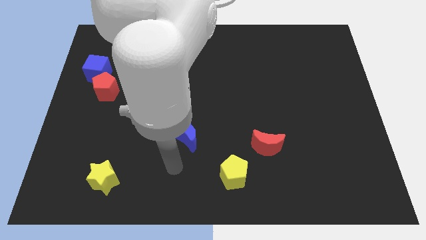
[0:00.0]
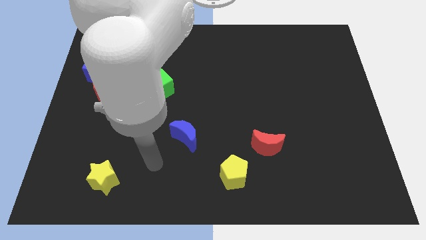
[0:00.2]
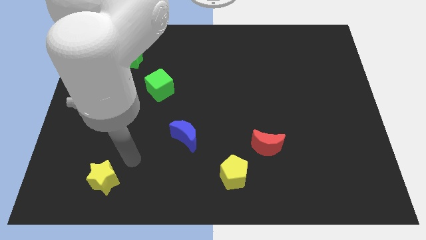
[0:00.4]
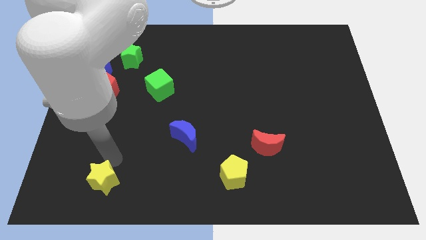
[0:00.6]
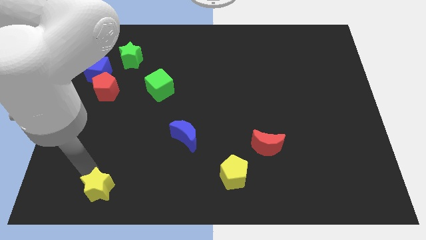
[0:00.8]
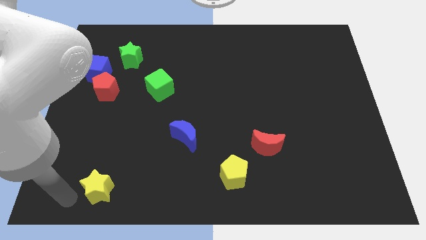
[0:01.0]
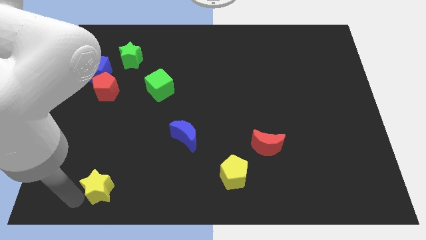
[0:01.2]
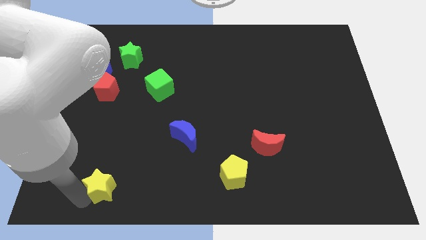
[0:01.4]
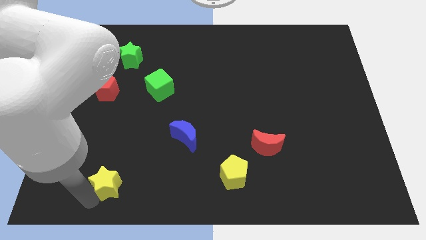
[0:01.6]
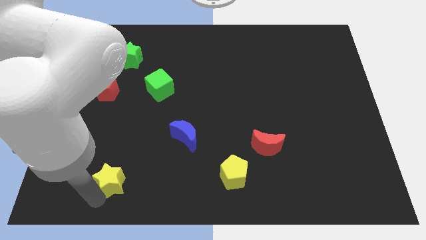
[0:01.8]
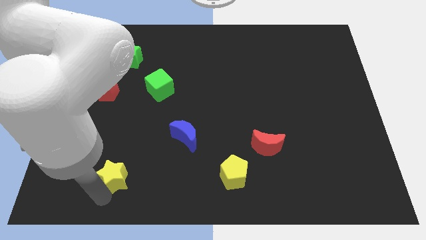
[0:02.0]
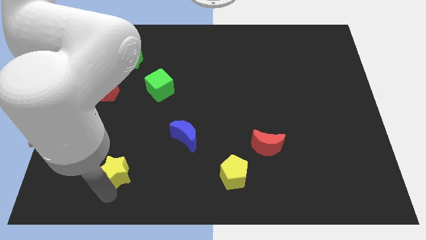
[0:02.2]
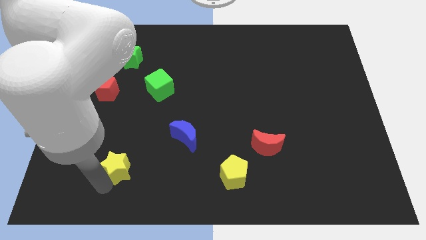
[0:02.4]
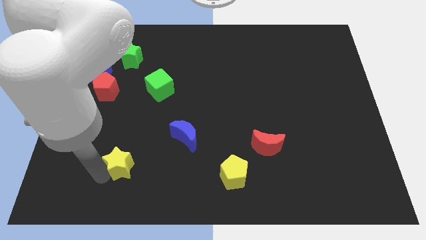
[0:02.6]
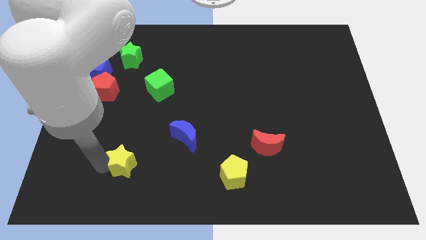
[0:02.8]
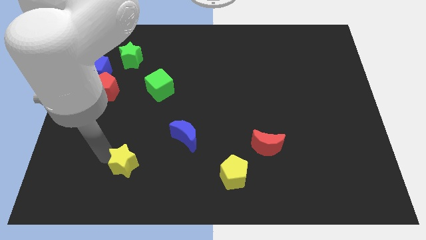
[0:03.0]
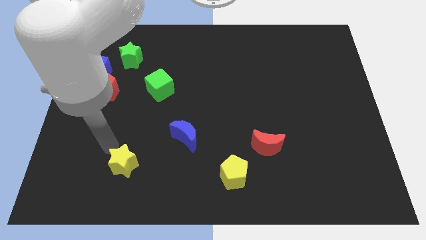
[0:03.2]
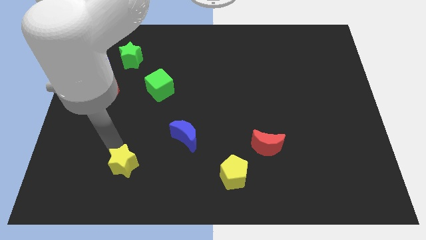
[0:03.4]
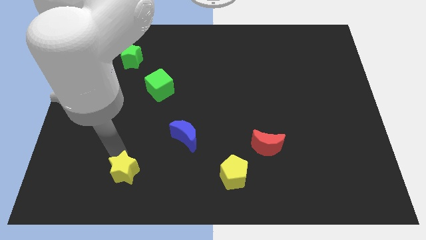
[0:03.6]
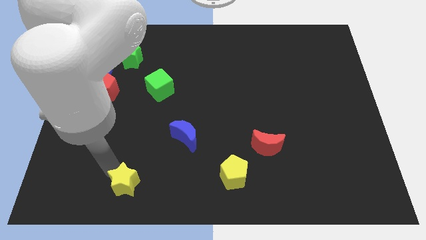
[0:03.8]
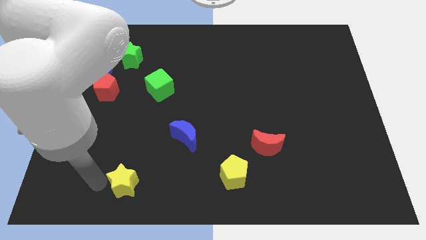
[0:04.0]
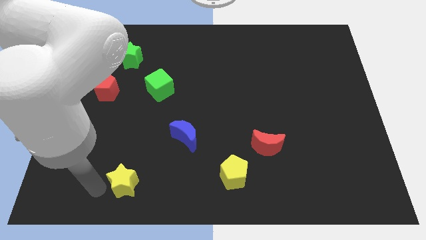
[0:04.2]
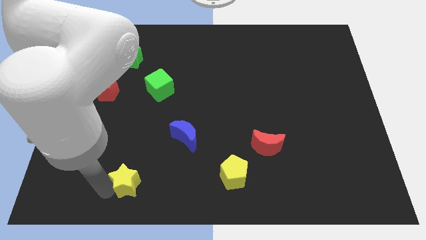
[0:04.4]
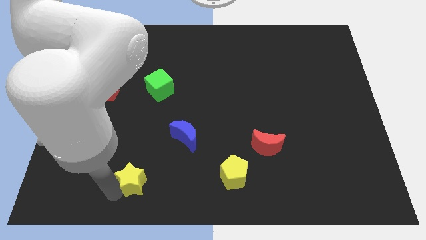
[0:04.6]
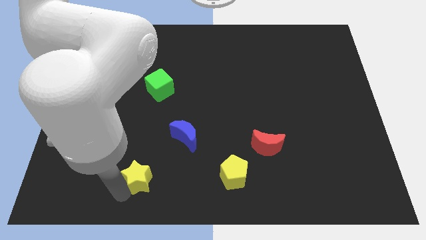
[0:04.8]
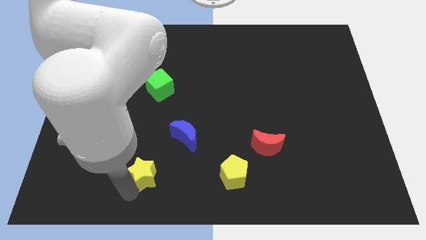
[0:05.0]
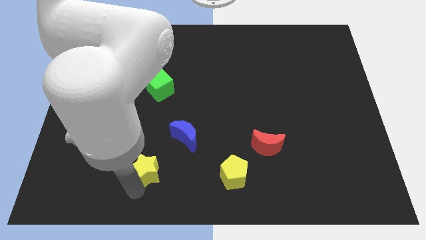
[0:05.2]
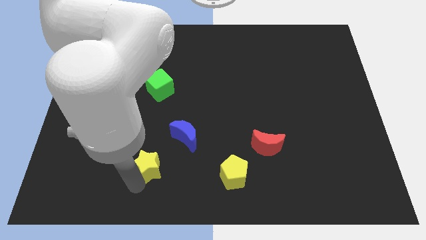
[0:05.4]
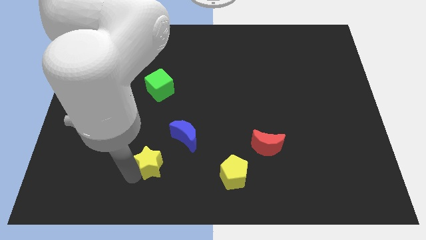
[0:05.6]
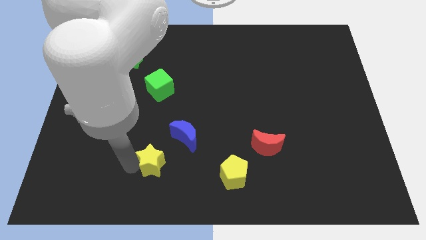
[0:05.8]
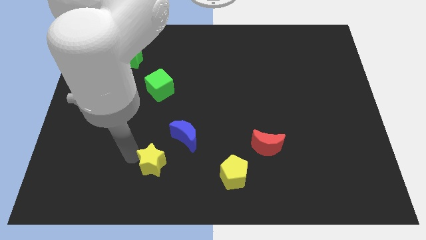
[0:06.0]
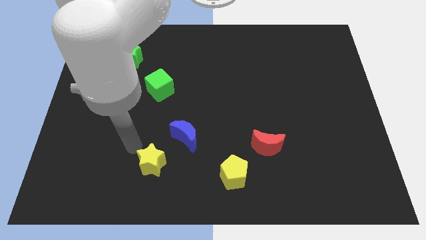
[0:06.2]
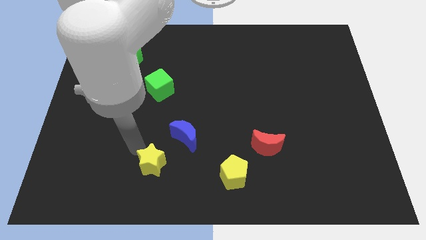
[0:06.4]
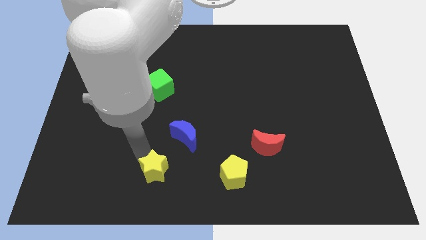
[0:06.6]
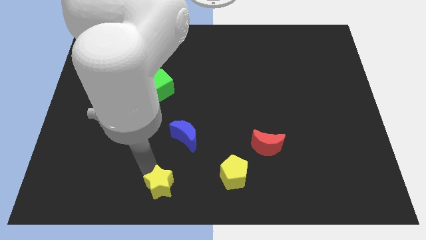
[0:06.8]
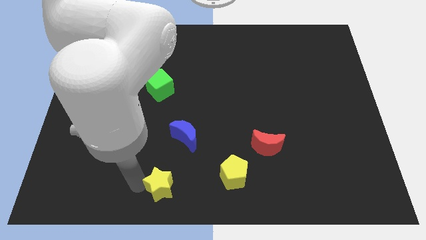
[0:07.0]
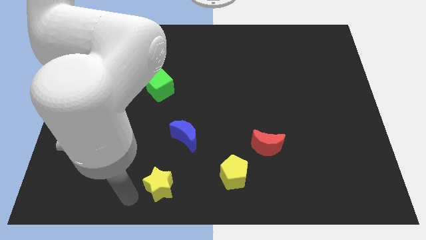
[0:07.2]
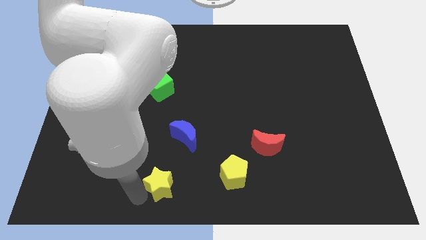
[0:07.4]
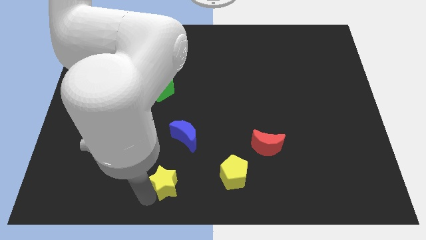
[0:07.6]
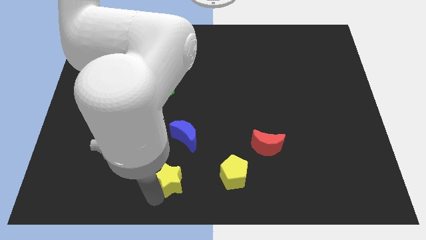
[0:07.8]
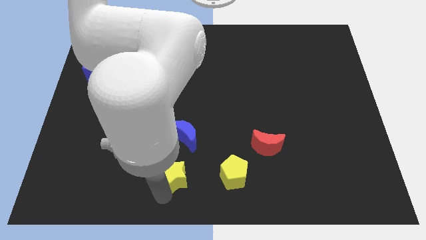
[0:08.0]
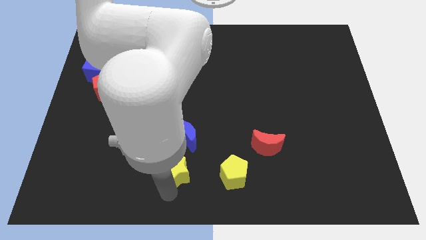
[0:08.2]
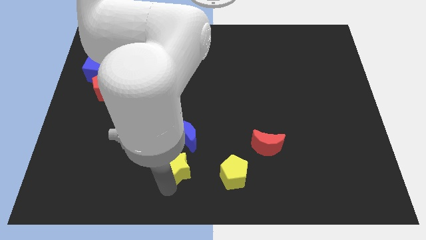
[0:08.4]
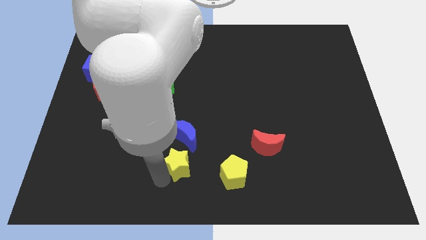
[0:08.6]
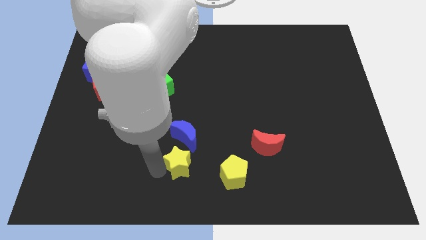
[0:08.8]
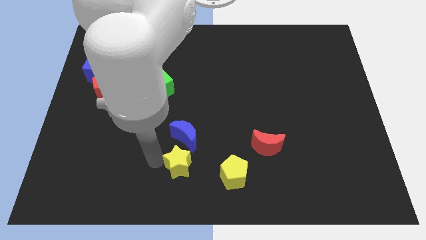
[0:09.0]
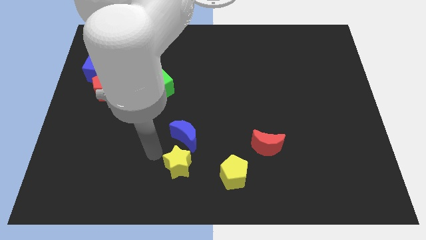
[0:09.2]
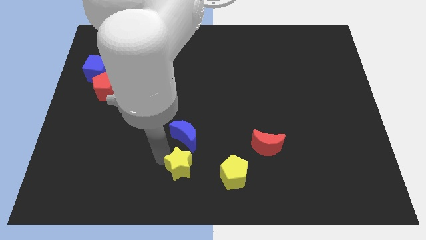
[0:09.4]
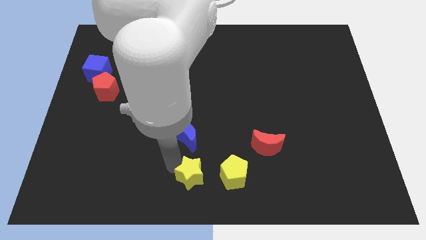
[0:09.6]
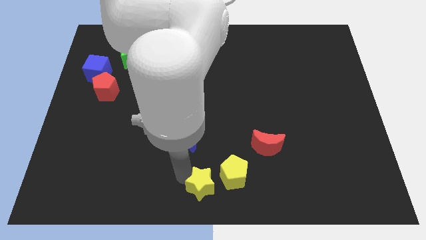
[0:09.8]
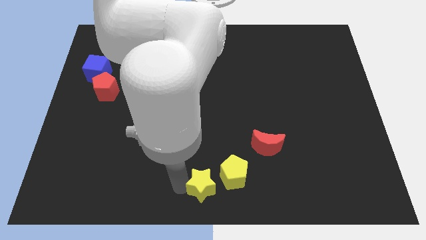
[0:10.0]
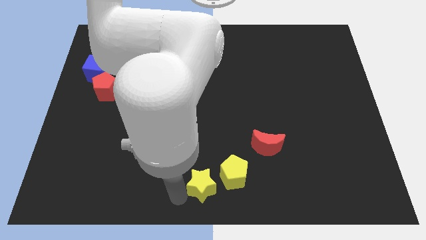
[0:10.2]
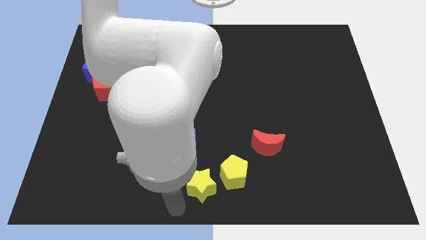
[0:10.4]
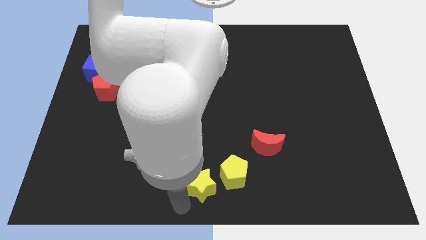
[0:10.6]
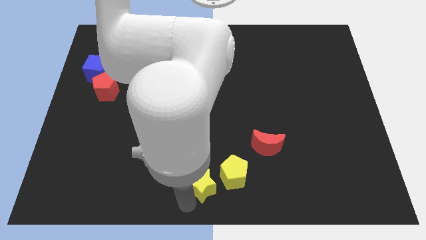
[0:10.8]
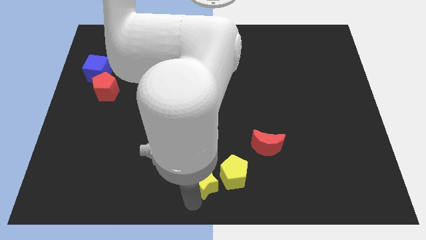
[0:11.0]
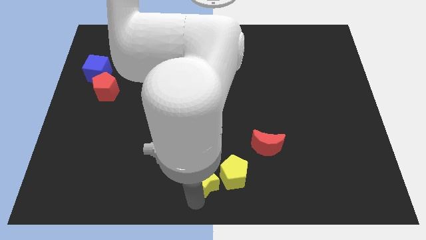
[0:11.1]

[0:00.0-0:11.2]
push the yellow star close to the yellow pentagon
